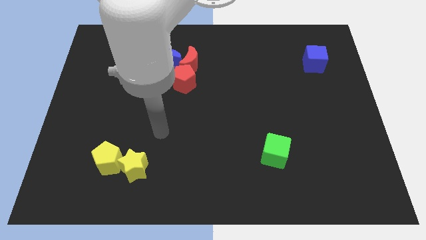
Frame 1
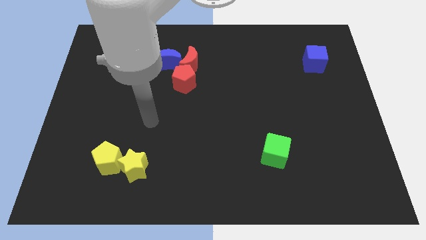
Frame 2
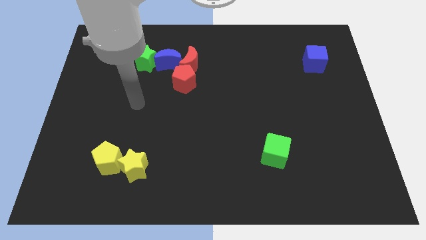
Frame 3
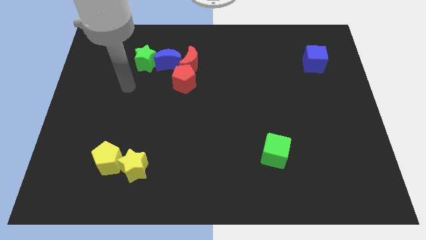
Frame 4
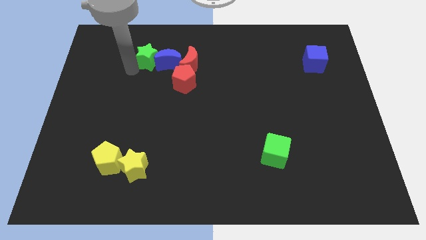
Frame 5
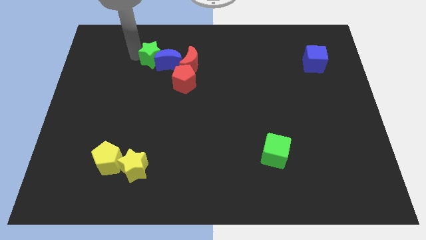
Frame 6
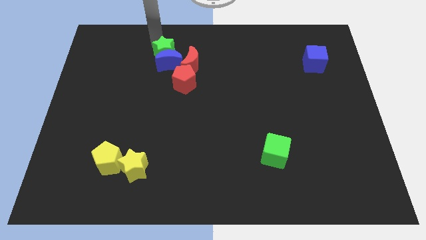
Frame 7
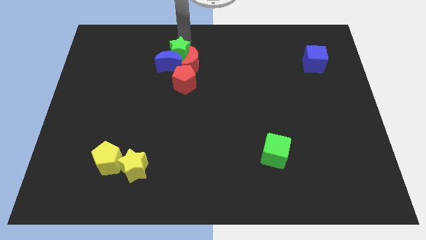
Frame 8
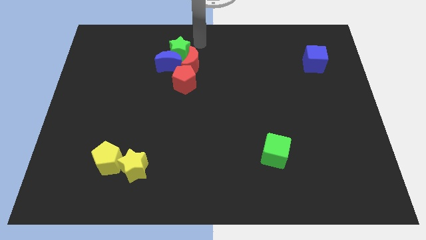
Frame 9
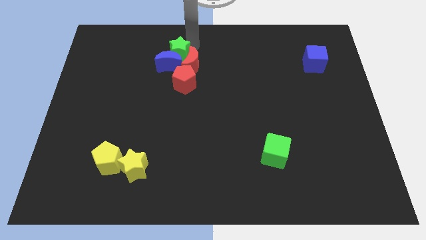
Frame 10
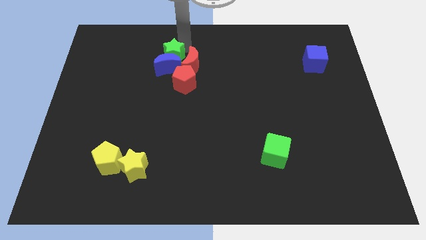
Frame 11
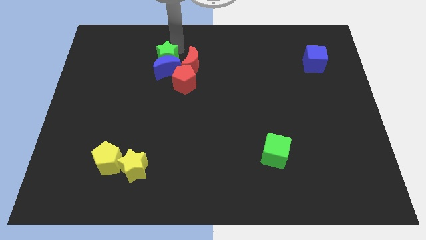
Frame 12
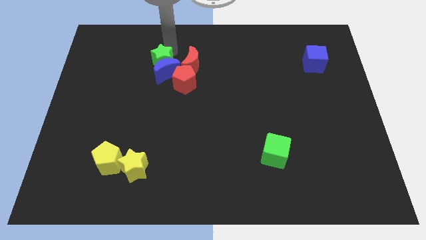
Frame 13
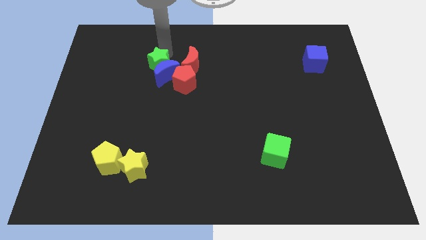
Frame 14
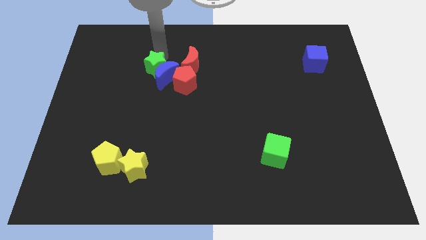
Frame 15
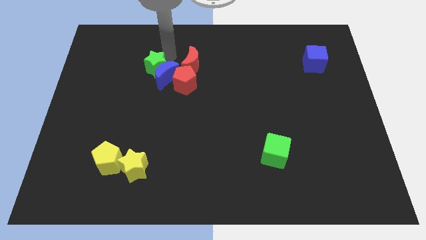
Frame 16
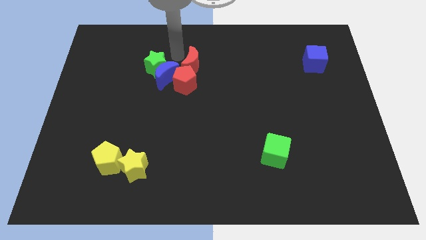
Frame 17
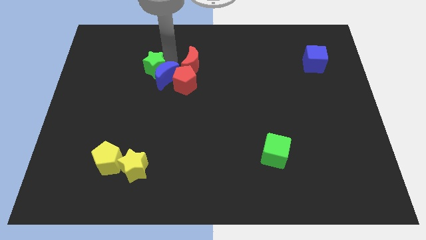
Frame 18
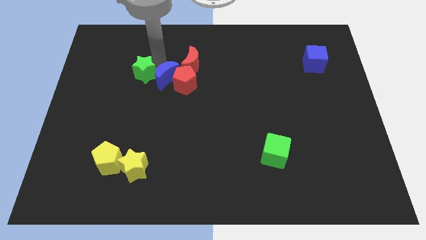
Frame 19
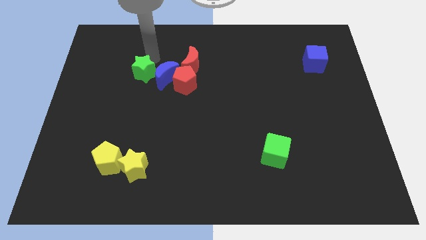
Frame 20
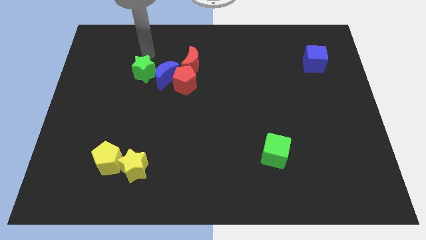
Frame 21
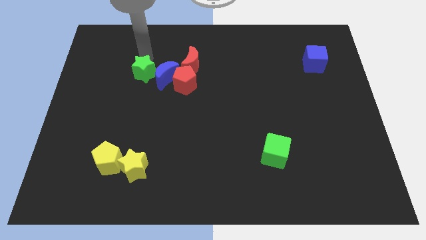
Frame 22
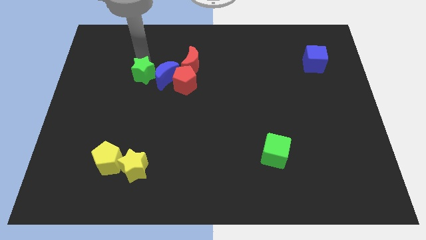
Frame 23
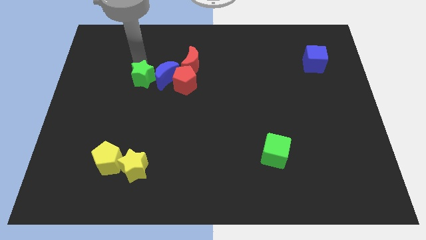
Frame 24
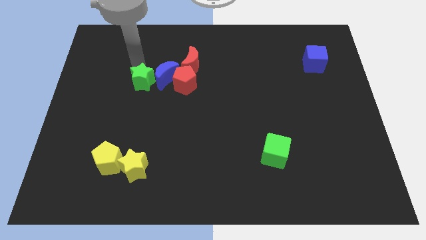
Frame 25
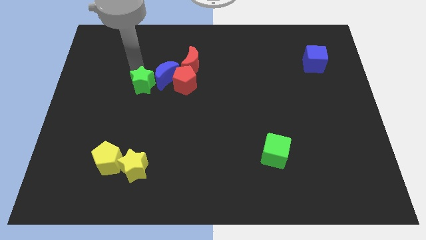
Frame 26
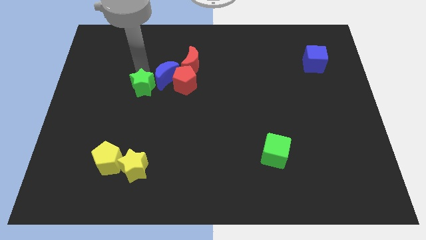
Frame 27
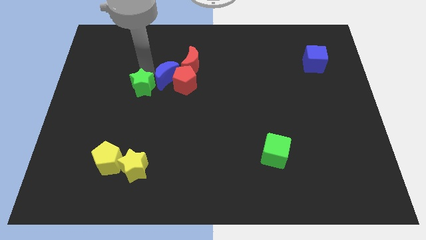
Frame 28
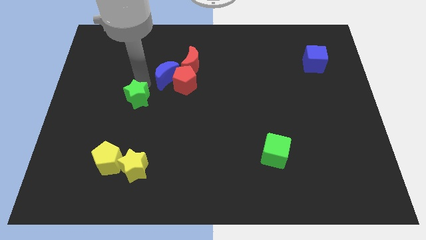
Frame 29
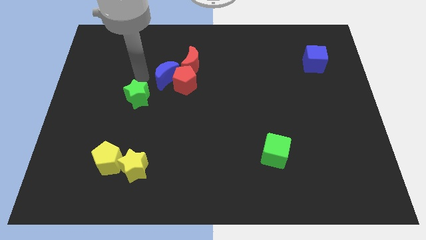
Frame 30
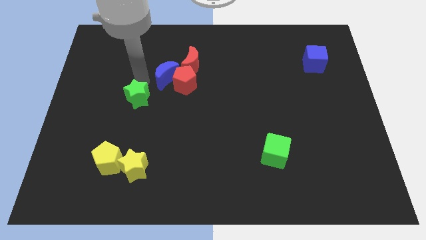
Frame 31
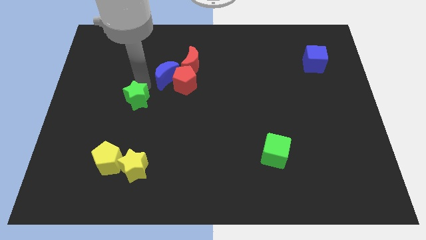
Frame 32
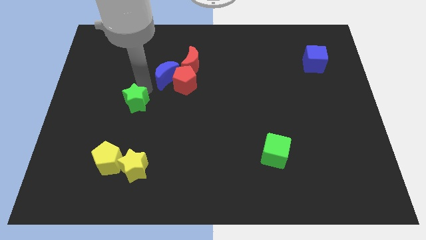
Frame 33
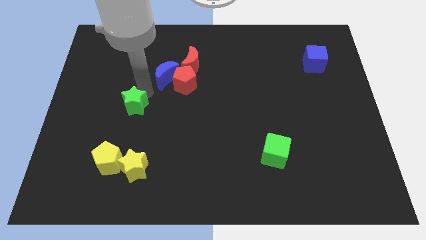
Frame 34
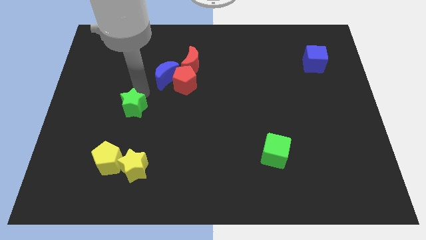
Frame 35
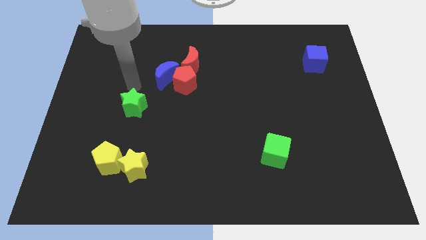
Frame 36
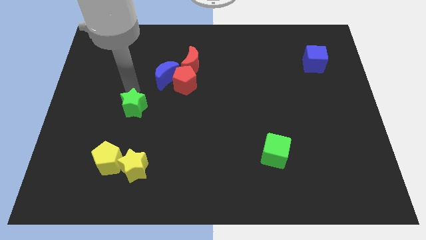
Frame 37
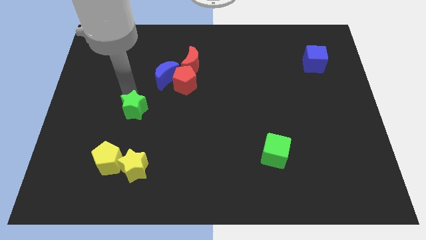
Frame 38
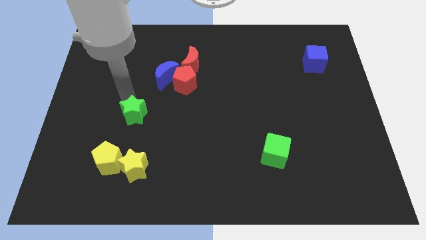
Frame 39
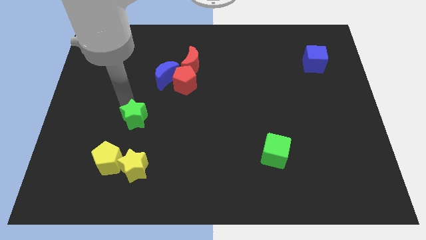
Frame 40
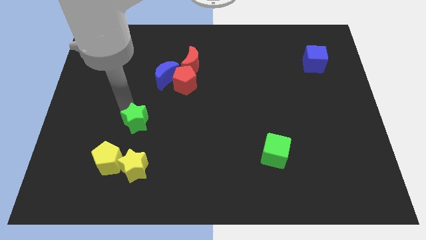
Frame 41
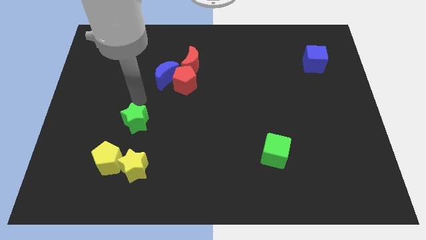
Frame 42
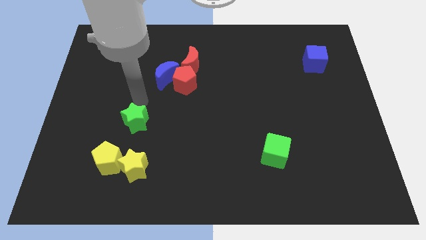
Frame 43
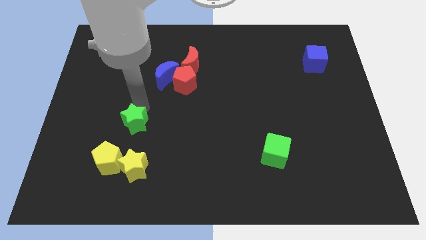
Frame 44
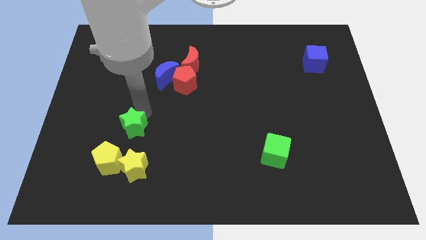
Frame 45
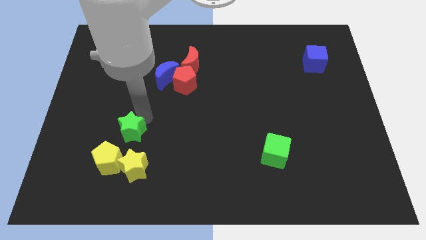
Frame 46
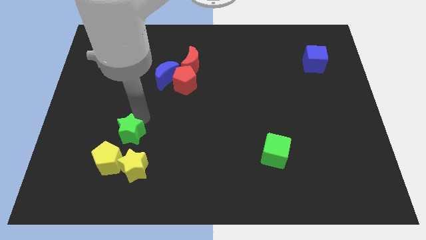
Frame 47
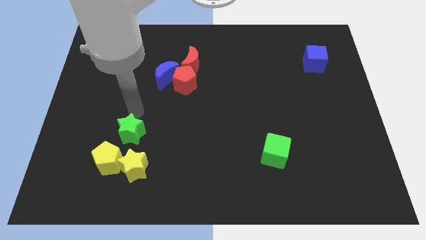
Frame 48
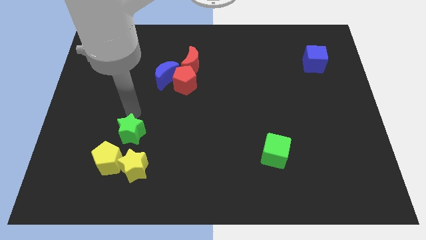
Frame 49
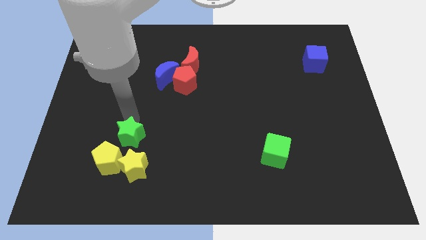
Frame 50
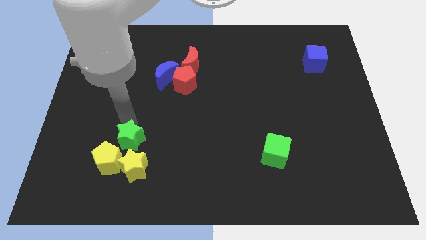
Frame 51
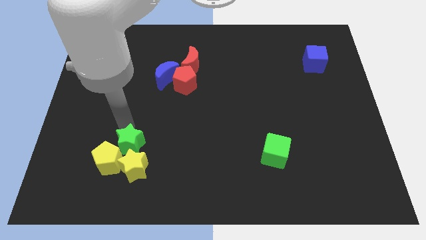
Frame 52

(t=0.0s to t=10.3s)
slide the green star towards the yellow star

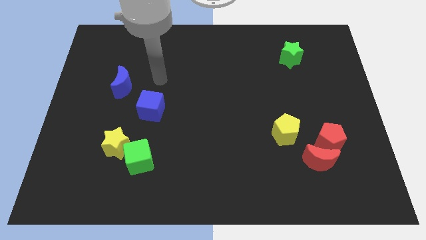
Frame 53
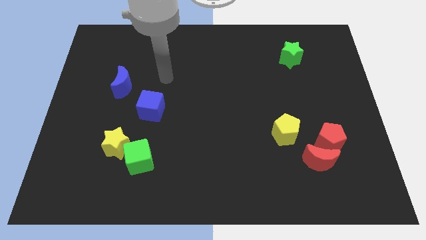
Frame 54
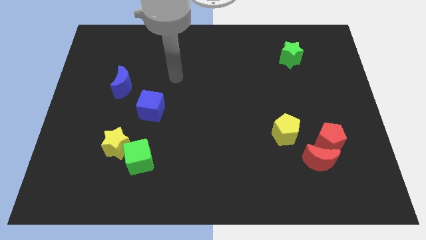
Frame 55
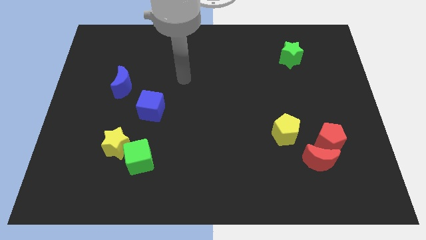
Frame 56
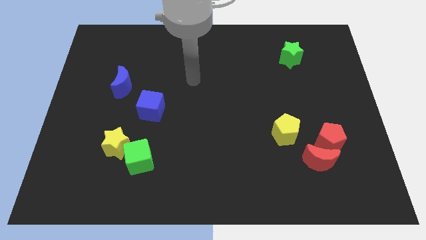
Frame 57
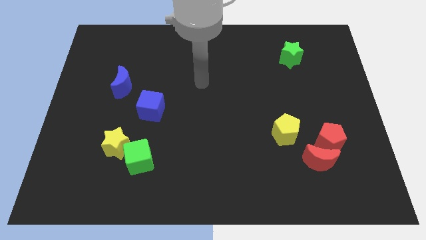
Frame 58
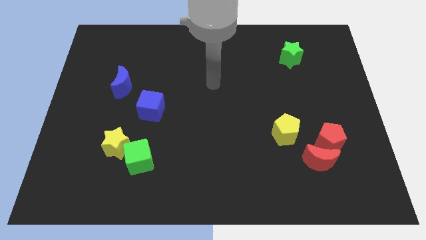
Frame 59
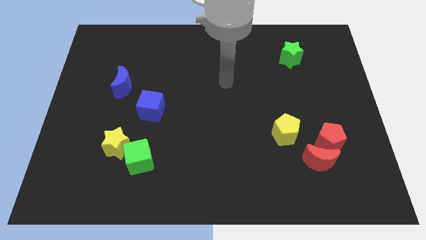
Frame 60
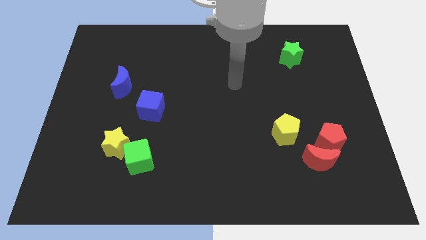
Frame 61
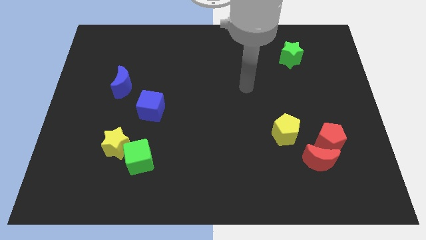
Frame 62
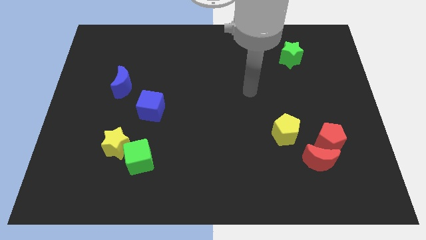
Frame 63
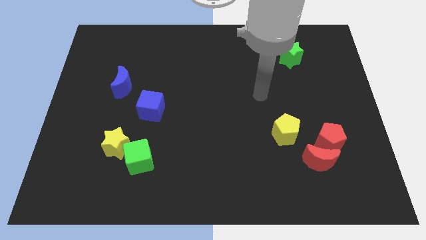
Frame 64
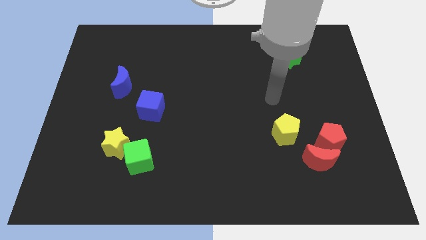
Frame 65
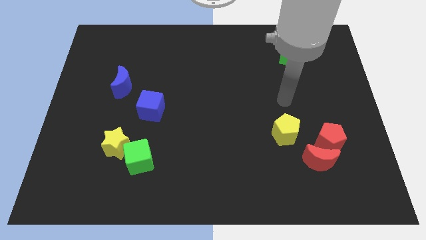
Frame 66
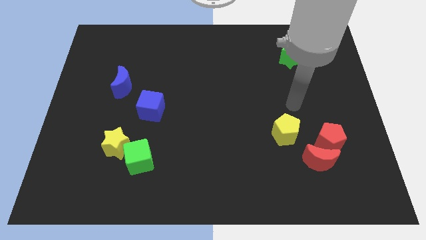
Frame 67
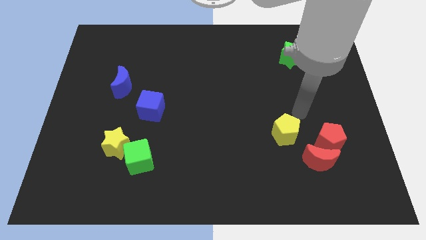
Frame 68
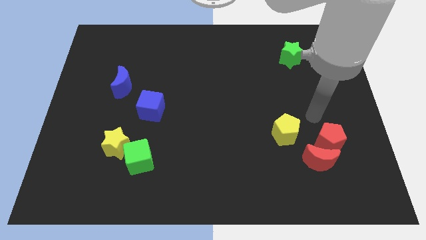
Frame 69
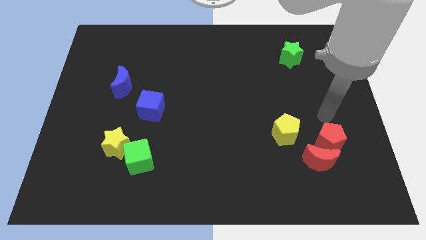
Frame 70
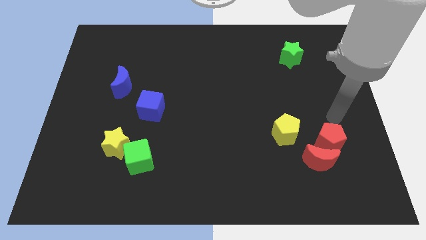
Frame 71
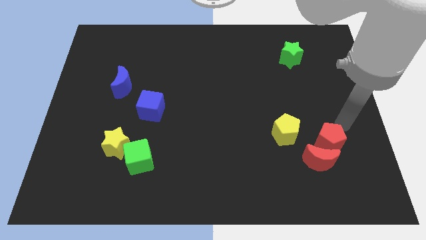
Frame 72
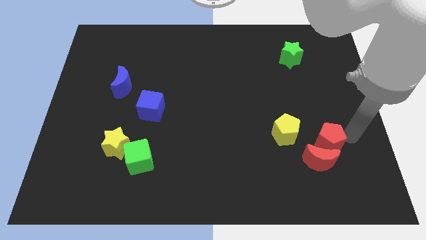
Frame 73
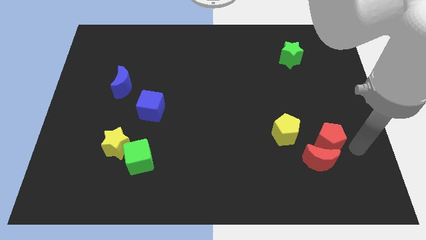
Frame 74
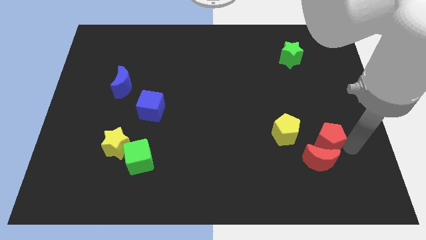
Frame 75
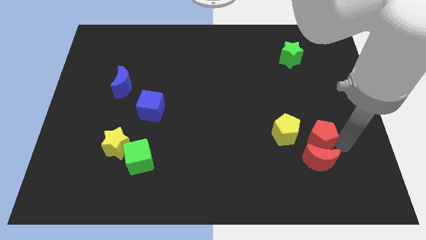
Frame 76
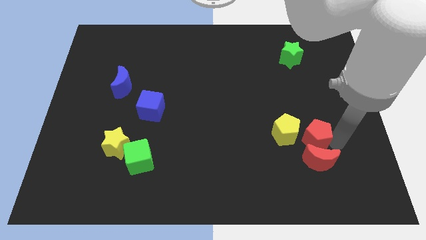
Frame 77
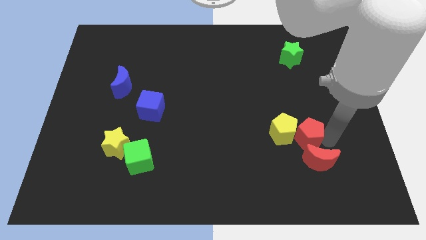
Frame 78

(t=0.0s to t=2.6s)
put the red pentagon next to the yellow pentagon

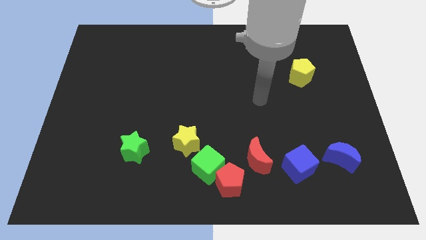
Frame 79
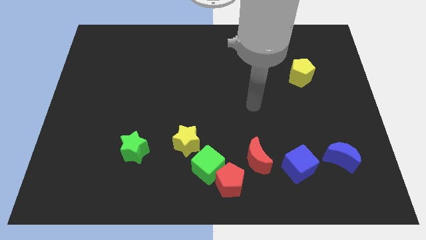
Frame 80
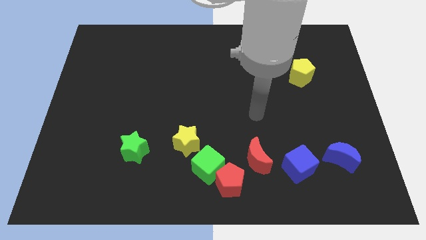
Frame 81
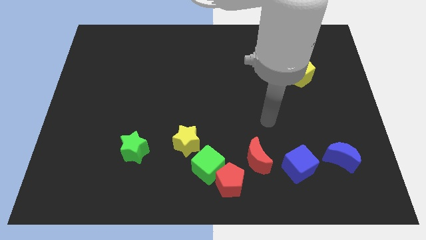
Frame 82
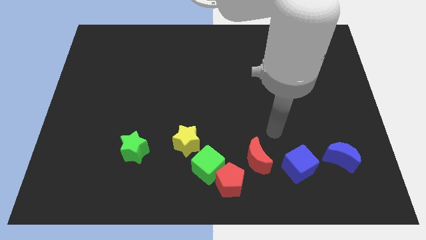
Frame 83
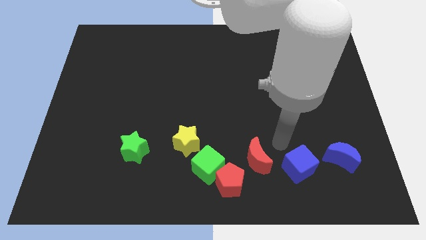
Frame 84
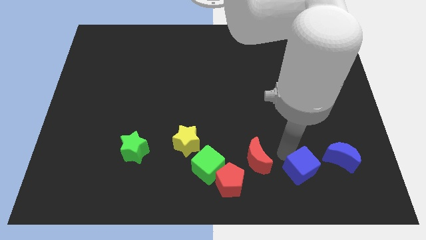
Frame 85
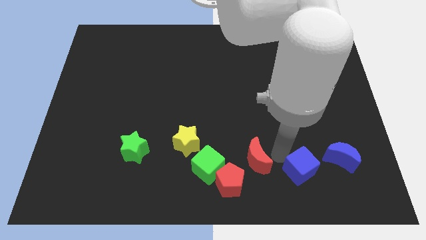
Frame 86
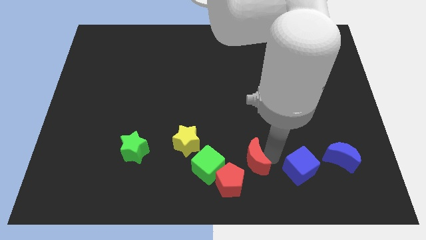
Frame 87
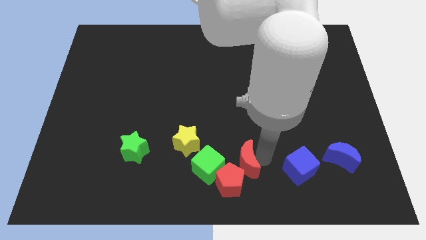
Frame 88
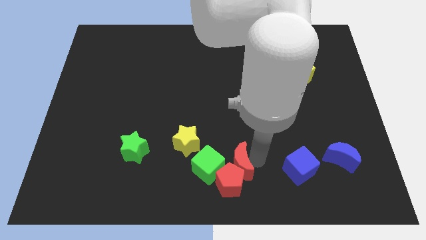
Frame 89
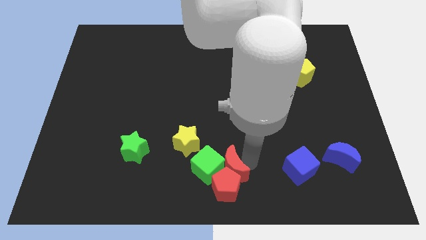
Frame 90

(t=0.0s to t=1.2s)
put the red moon to the green cube
